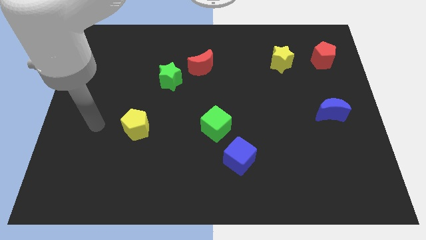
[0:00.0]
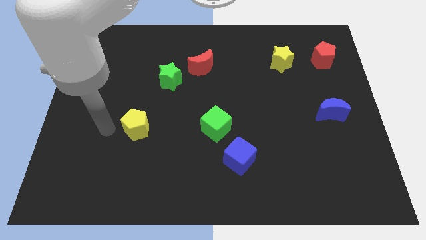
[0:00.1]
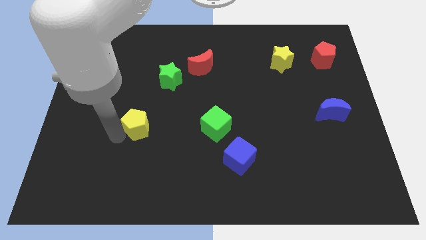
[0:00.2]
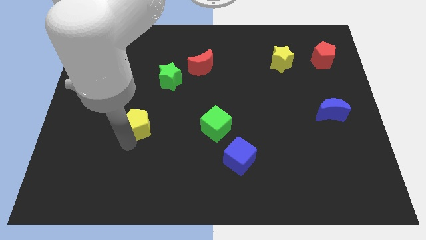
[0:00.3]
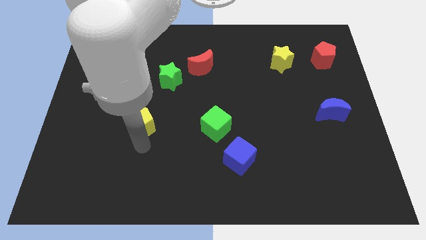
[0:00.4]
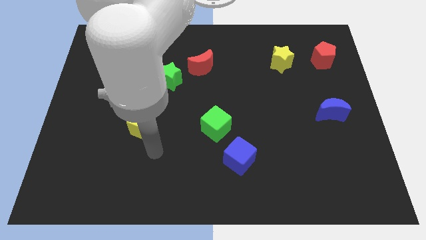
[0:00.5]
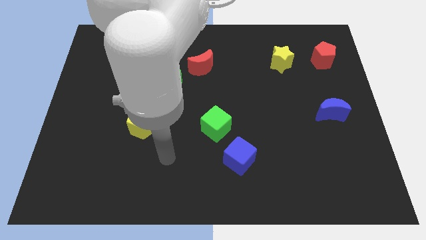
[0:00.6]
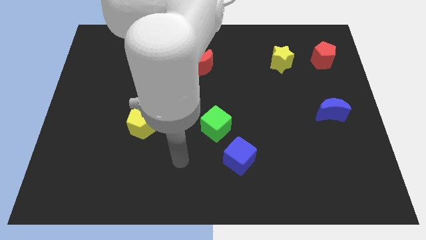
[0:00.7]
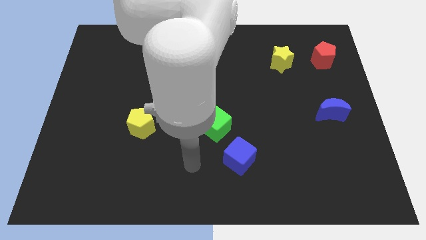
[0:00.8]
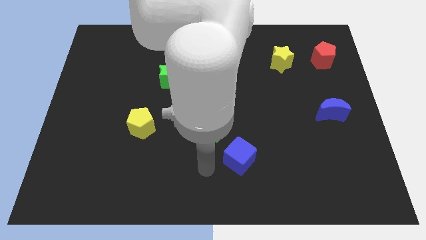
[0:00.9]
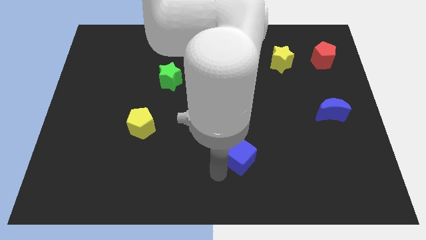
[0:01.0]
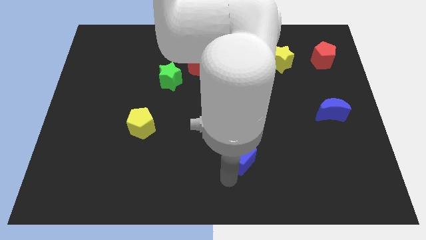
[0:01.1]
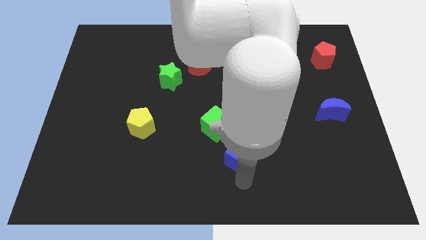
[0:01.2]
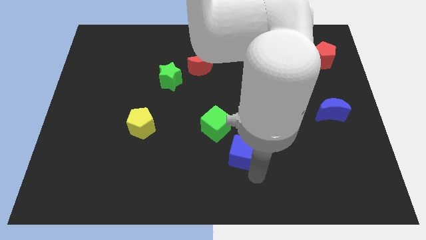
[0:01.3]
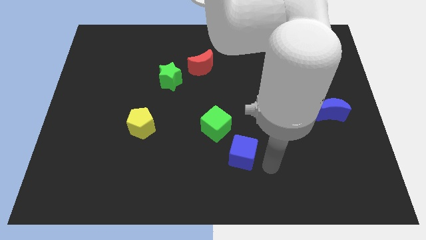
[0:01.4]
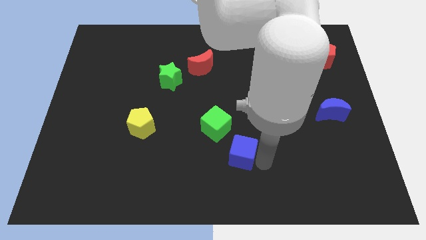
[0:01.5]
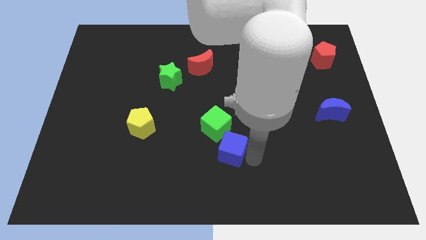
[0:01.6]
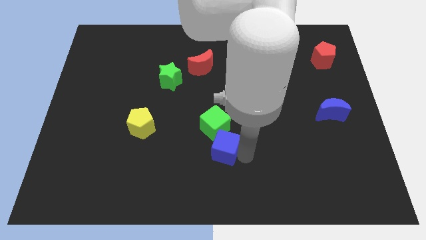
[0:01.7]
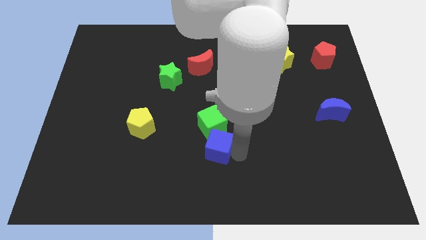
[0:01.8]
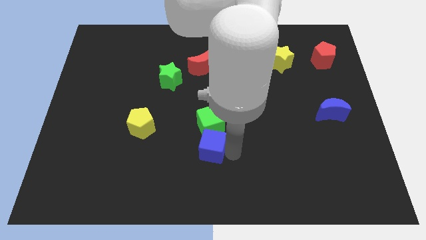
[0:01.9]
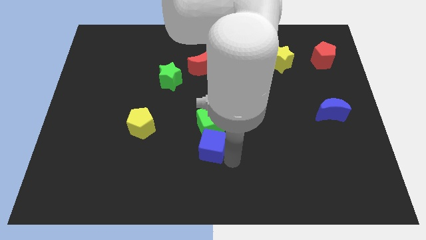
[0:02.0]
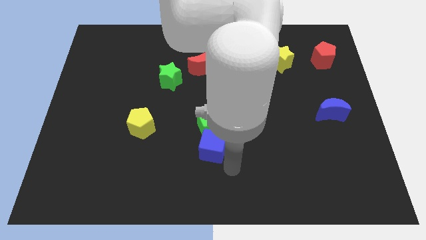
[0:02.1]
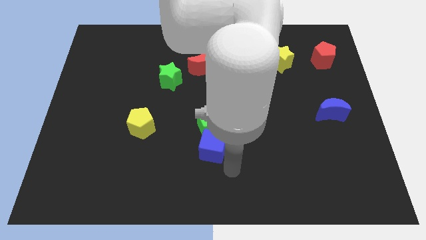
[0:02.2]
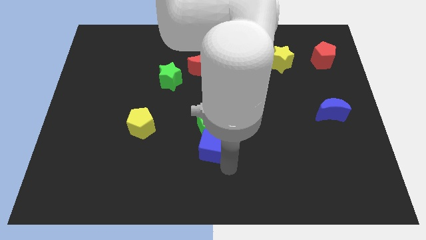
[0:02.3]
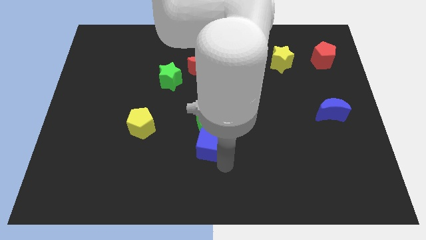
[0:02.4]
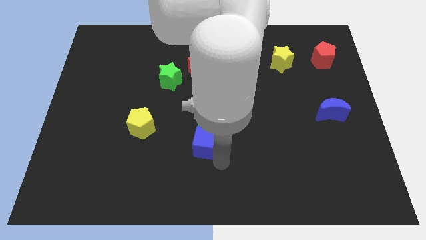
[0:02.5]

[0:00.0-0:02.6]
slide the blue cube diagonally upwards and to the left a little bit

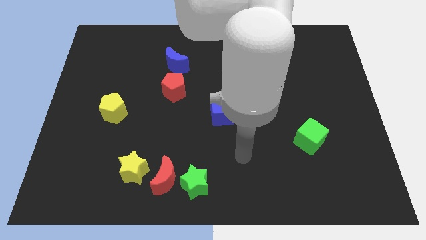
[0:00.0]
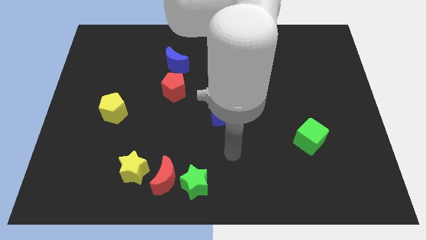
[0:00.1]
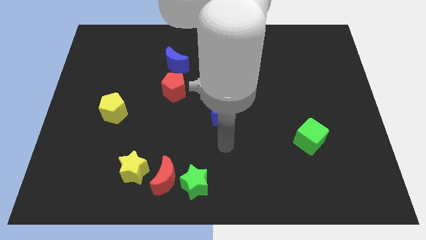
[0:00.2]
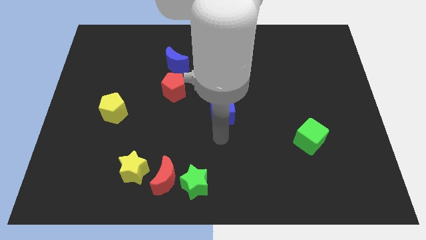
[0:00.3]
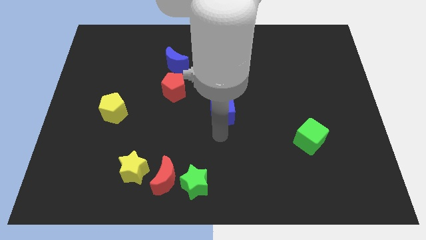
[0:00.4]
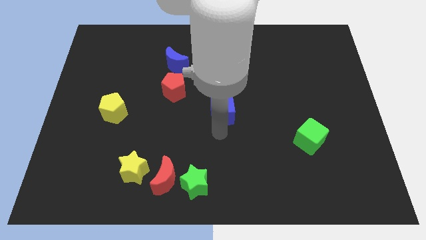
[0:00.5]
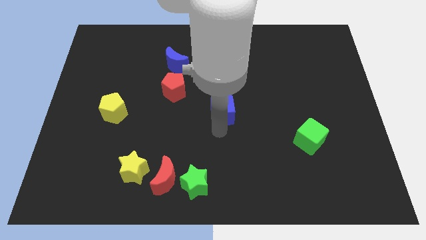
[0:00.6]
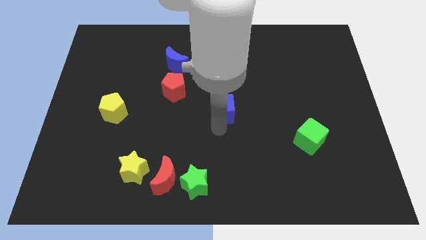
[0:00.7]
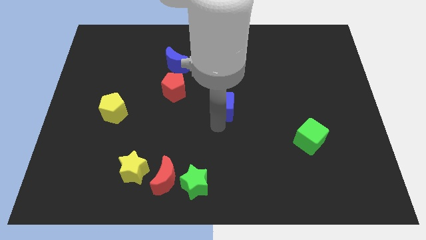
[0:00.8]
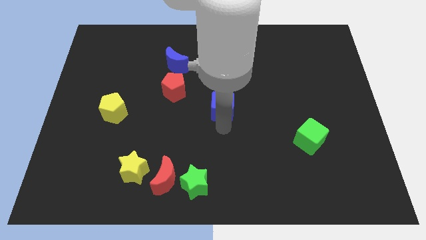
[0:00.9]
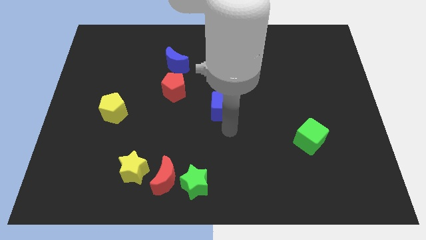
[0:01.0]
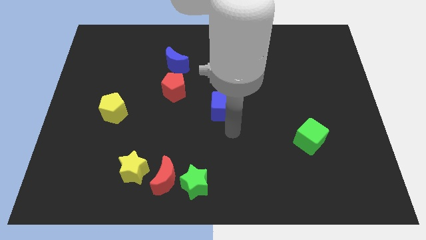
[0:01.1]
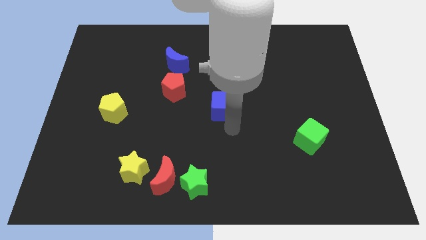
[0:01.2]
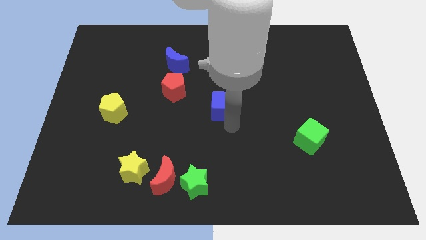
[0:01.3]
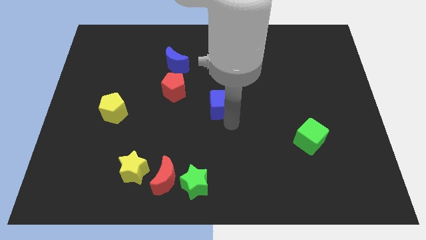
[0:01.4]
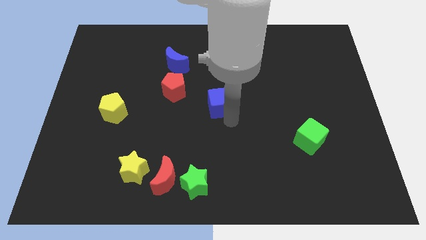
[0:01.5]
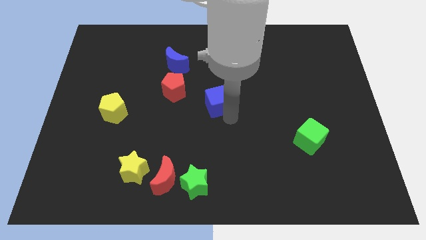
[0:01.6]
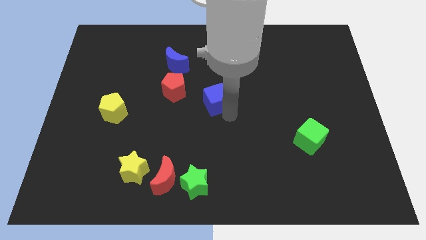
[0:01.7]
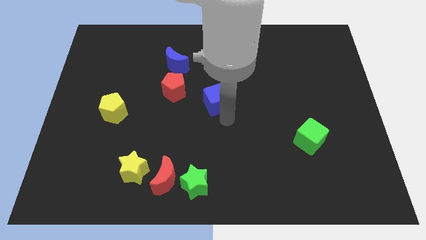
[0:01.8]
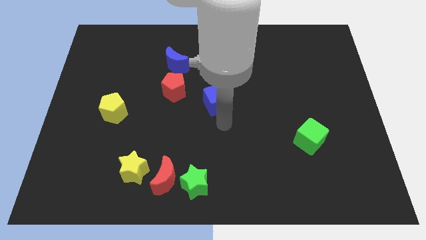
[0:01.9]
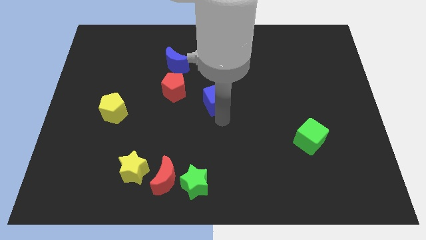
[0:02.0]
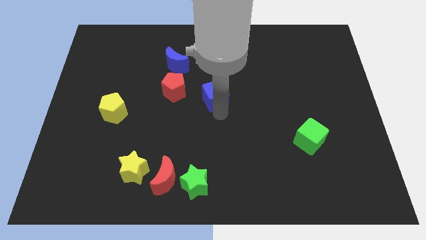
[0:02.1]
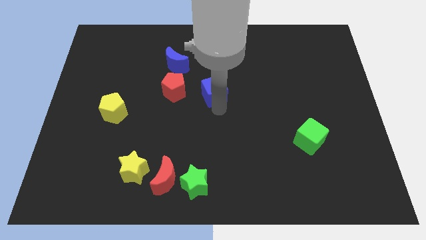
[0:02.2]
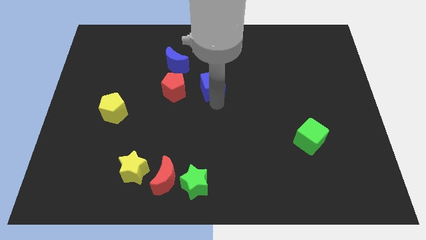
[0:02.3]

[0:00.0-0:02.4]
push the blue cube upwards a little

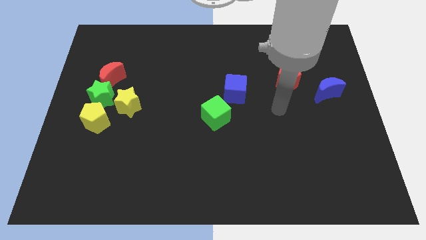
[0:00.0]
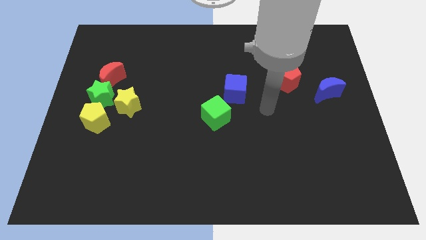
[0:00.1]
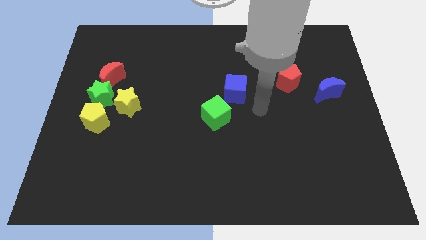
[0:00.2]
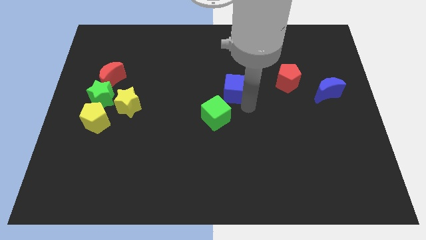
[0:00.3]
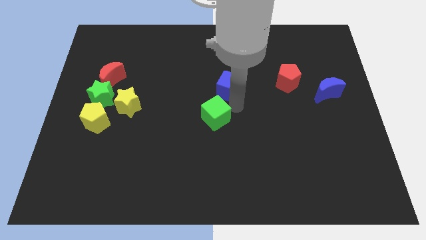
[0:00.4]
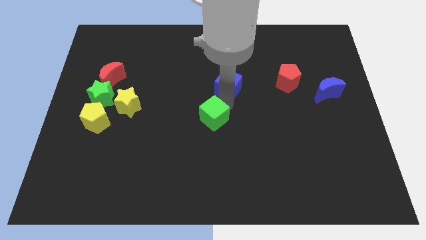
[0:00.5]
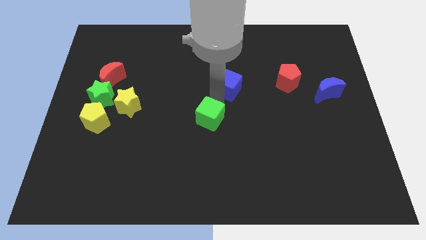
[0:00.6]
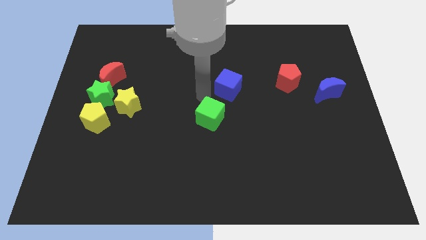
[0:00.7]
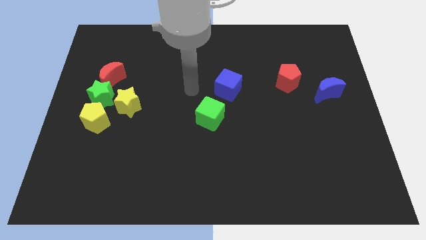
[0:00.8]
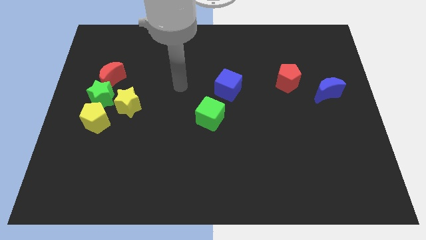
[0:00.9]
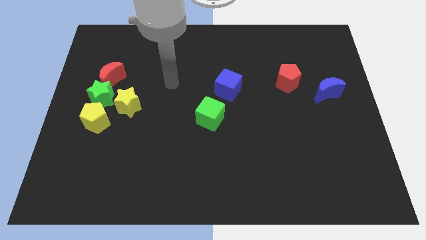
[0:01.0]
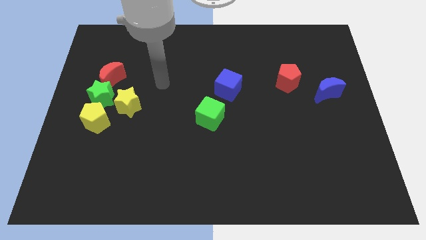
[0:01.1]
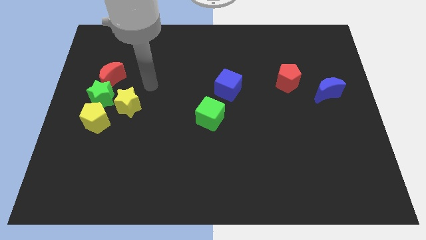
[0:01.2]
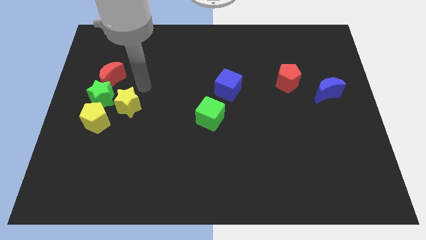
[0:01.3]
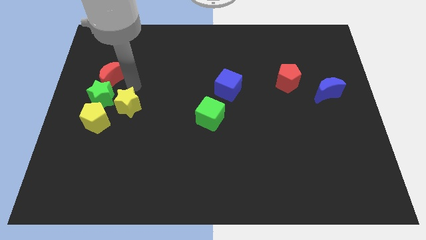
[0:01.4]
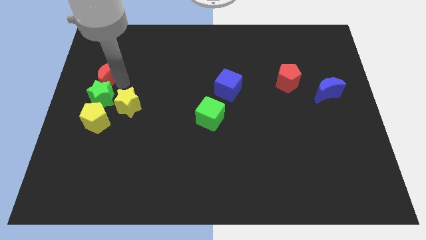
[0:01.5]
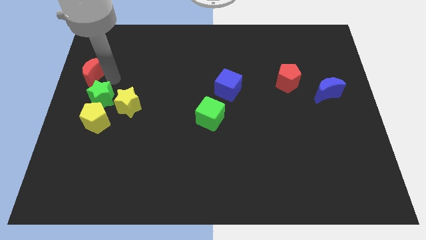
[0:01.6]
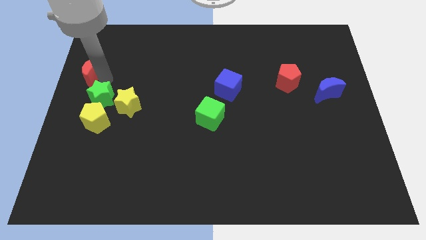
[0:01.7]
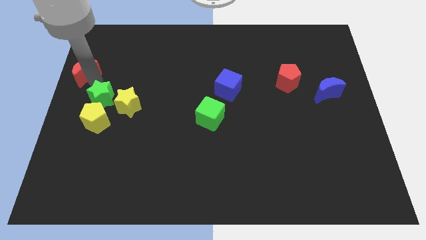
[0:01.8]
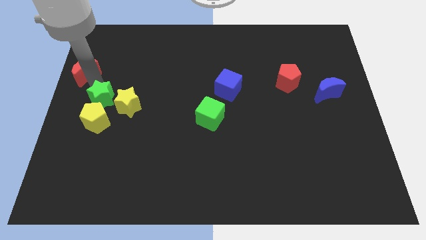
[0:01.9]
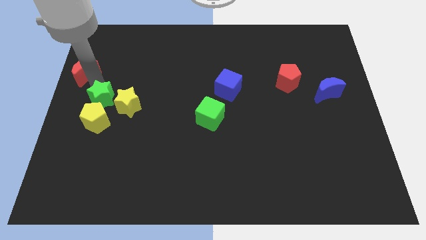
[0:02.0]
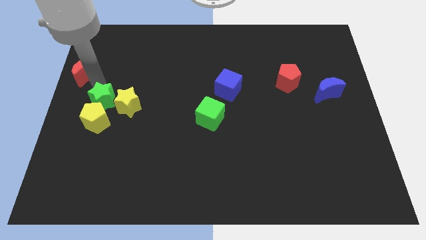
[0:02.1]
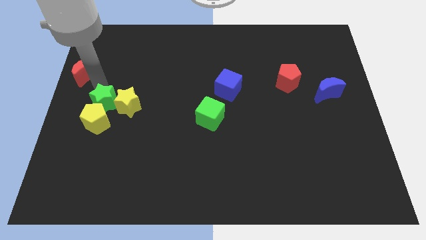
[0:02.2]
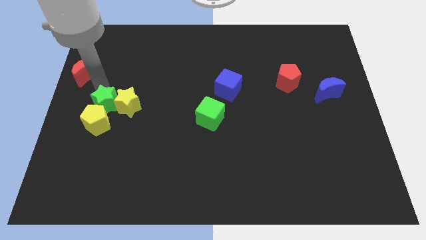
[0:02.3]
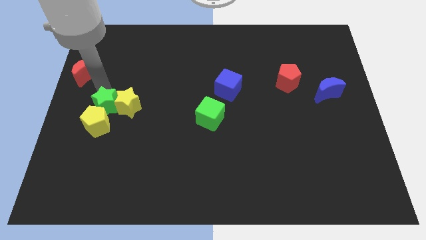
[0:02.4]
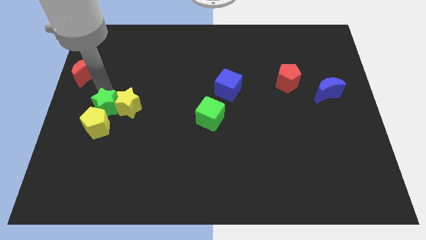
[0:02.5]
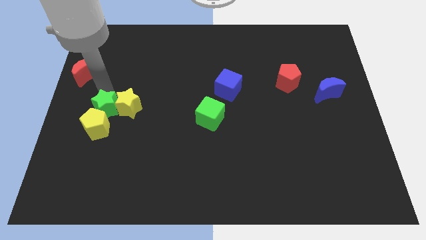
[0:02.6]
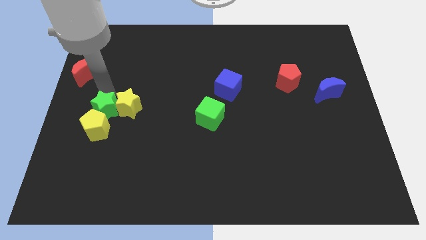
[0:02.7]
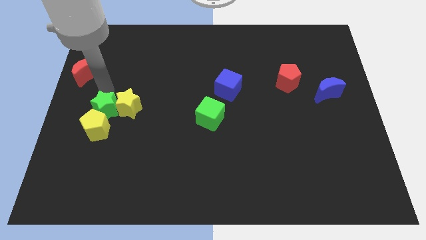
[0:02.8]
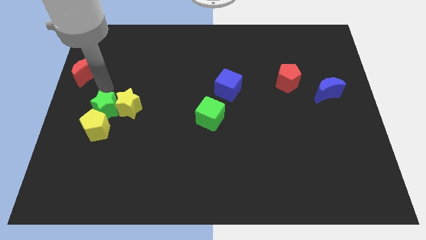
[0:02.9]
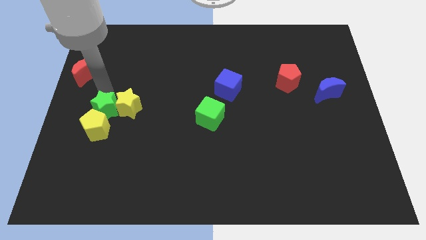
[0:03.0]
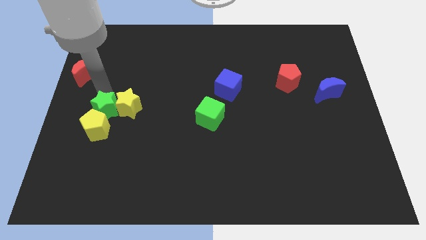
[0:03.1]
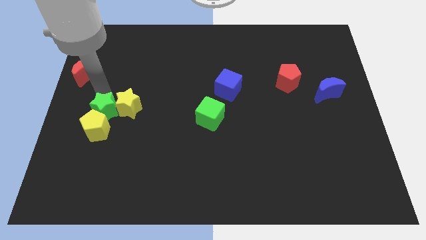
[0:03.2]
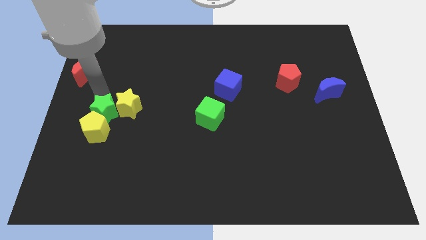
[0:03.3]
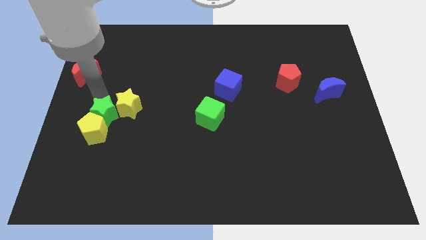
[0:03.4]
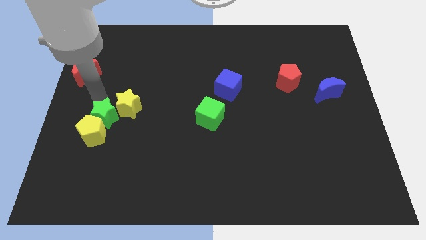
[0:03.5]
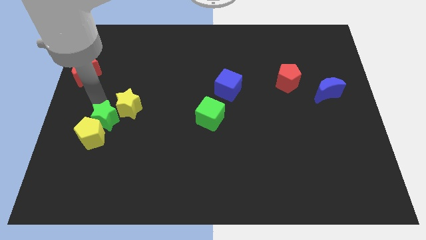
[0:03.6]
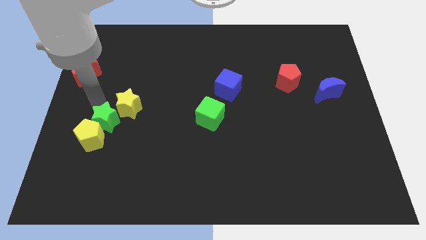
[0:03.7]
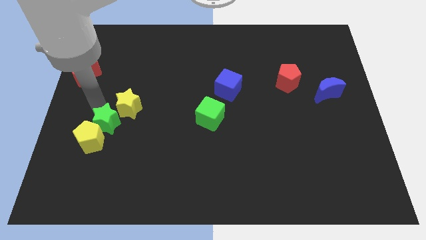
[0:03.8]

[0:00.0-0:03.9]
slightly slide the green star down
